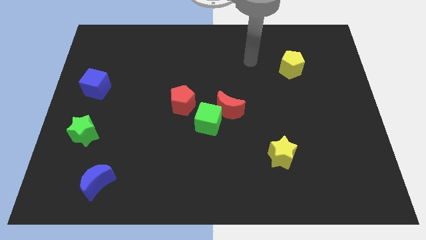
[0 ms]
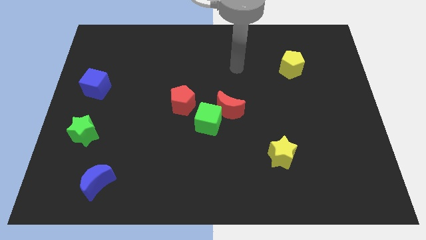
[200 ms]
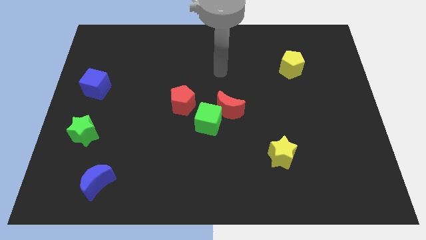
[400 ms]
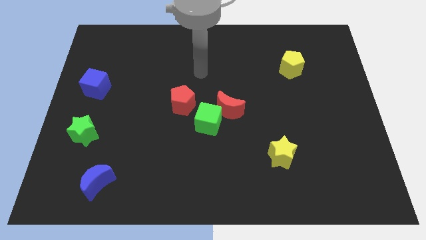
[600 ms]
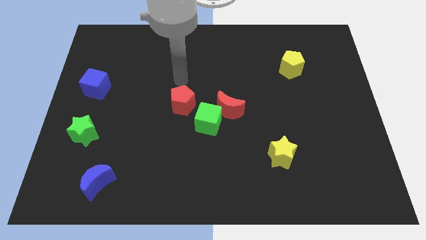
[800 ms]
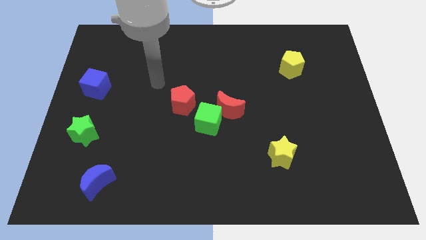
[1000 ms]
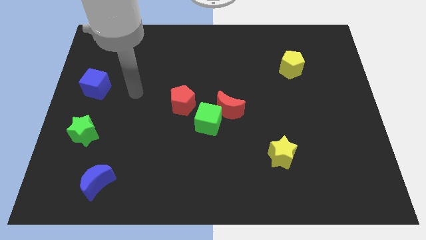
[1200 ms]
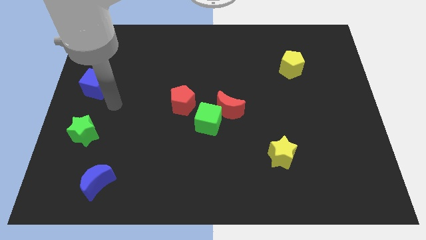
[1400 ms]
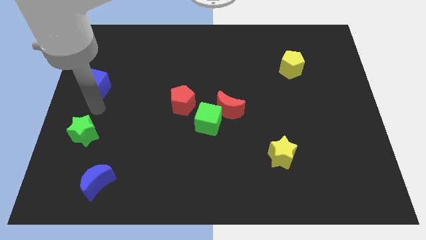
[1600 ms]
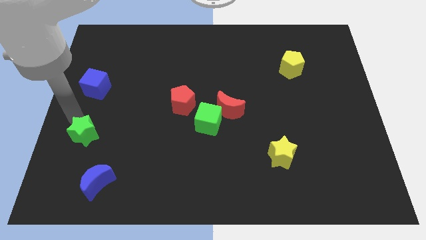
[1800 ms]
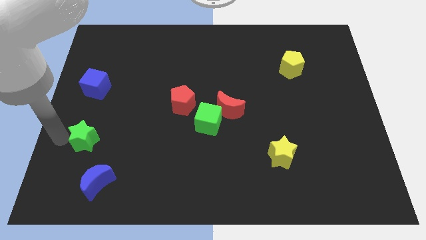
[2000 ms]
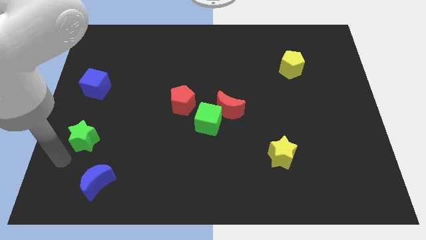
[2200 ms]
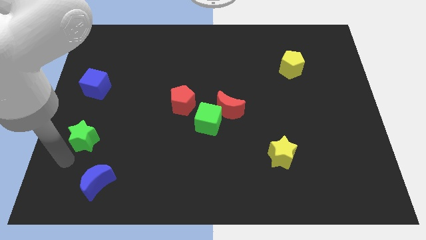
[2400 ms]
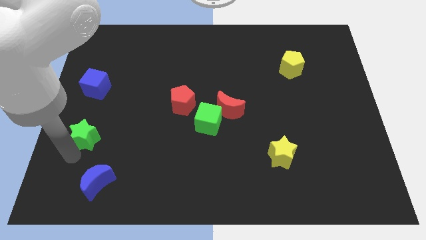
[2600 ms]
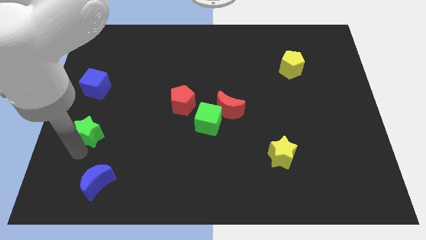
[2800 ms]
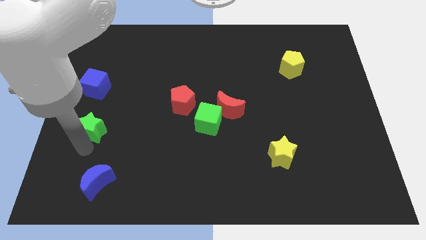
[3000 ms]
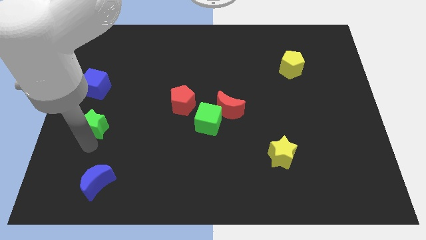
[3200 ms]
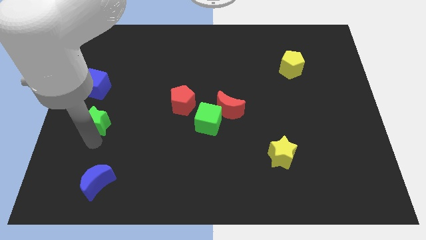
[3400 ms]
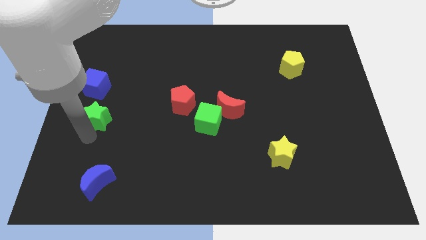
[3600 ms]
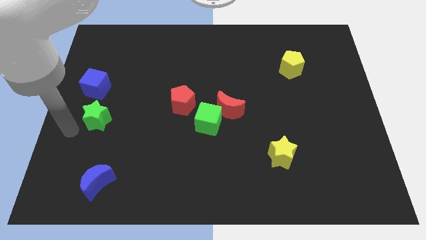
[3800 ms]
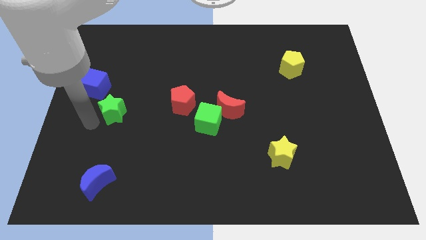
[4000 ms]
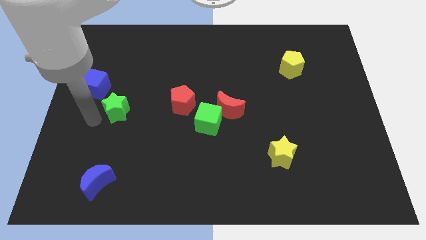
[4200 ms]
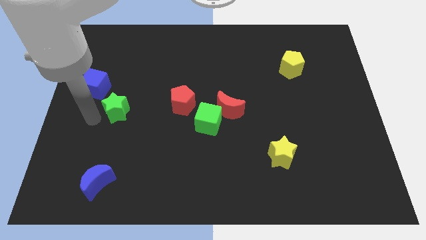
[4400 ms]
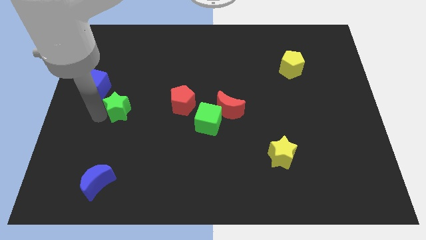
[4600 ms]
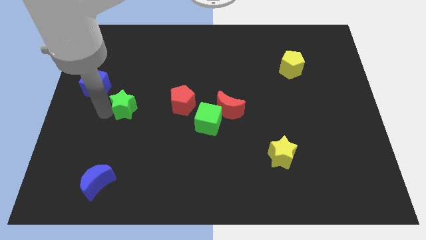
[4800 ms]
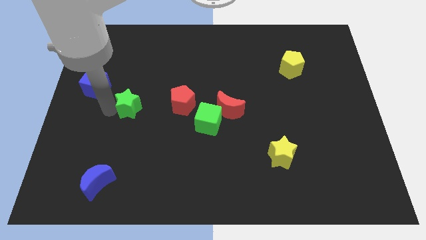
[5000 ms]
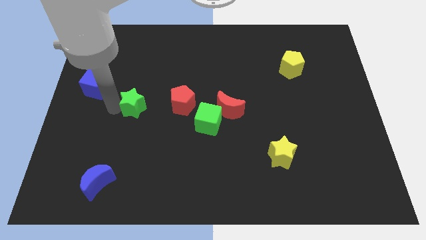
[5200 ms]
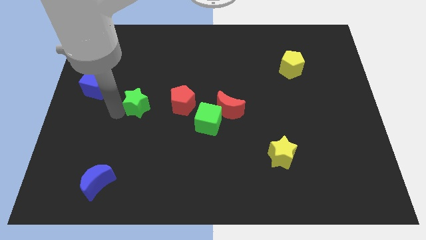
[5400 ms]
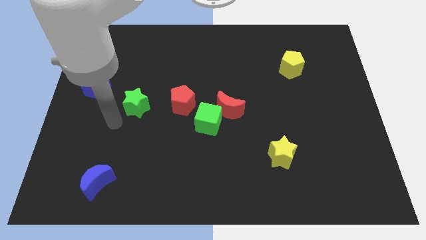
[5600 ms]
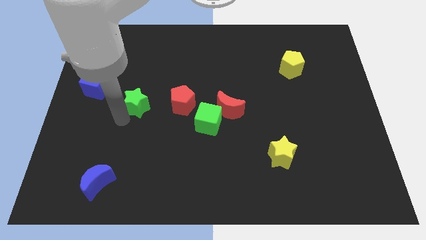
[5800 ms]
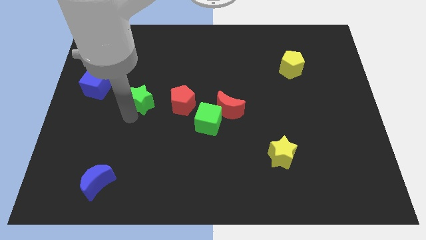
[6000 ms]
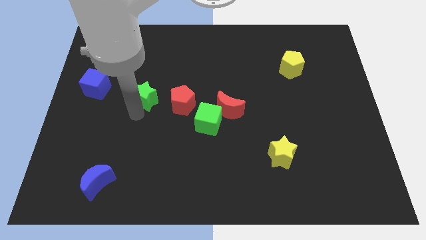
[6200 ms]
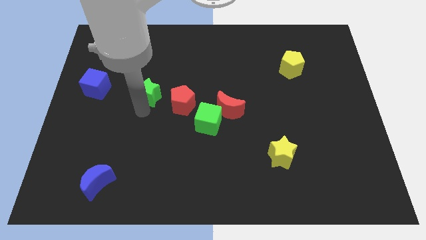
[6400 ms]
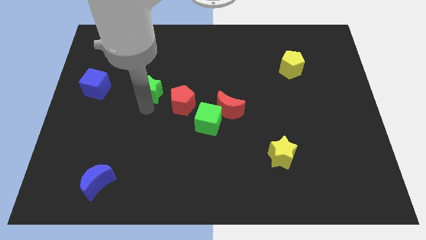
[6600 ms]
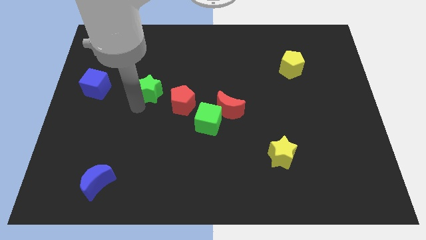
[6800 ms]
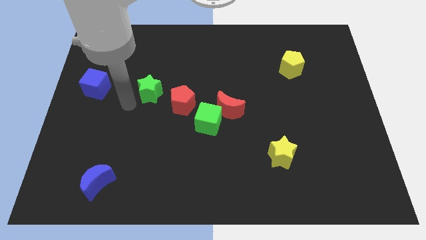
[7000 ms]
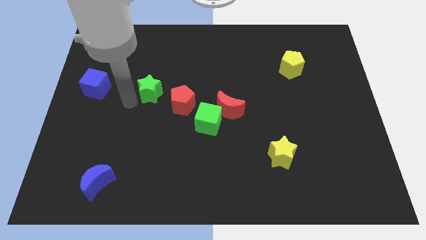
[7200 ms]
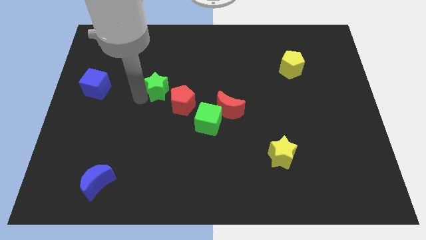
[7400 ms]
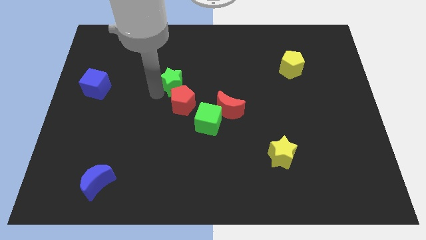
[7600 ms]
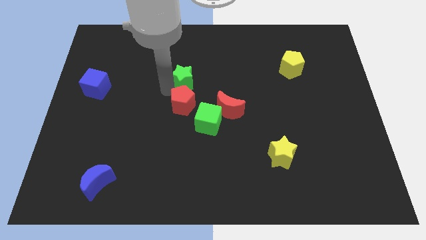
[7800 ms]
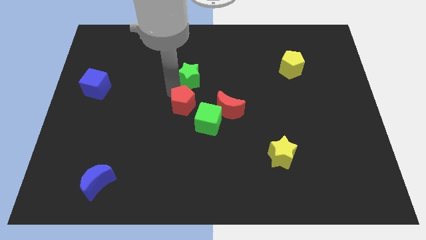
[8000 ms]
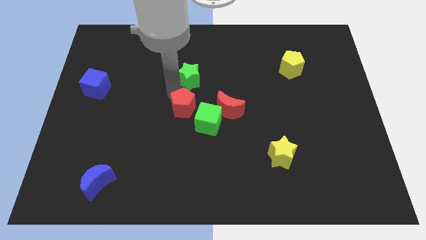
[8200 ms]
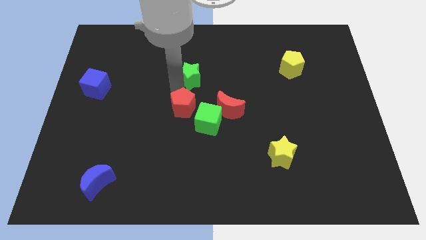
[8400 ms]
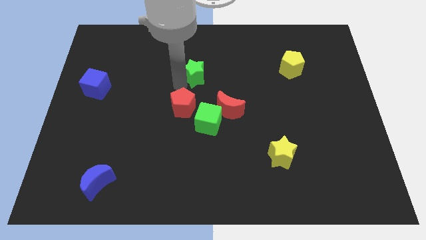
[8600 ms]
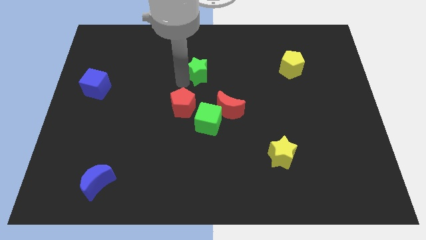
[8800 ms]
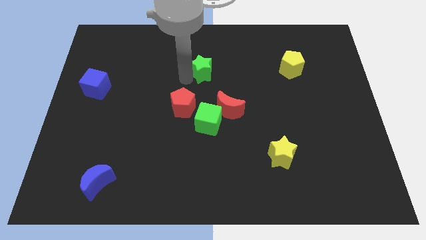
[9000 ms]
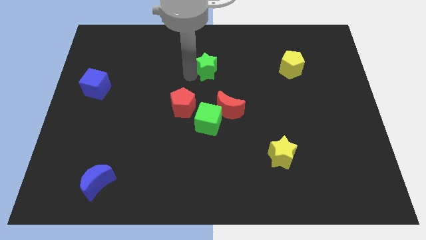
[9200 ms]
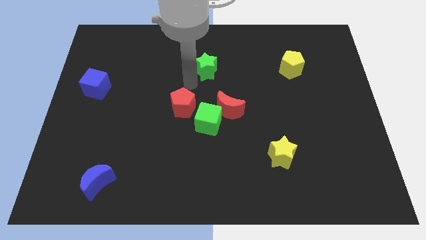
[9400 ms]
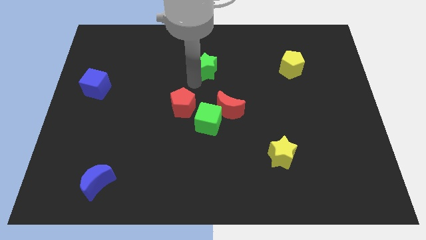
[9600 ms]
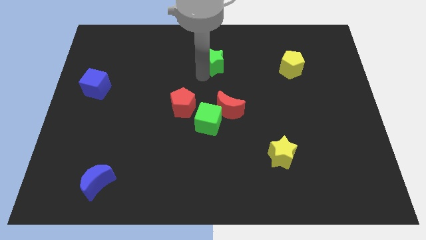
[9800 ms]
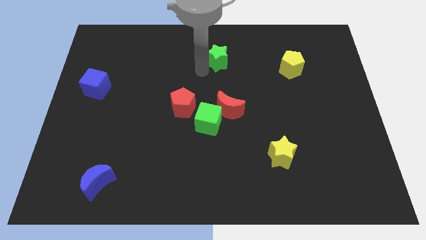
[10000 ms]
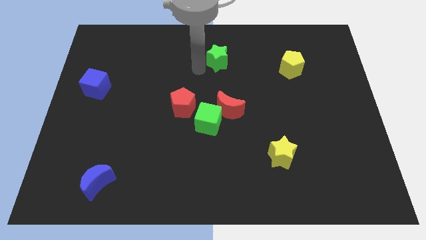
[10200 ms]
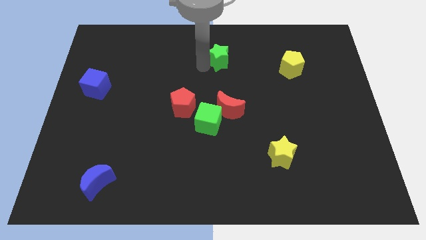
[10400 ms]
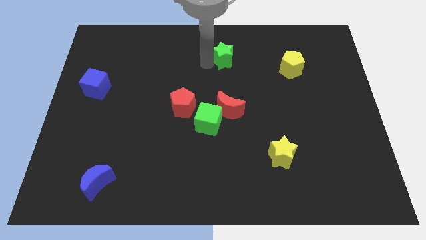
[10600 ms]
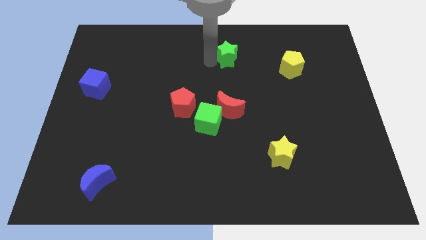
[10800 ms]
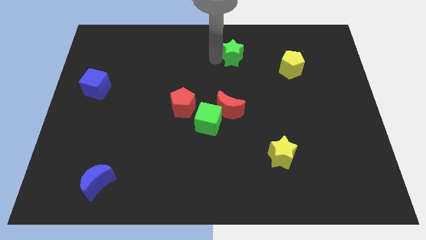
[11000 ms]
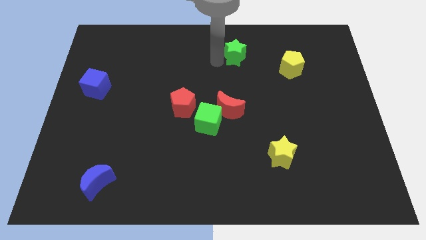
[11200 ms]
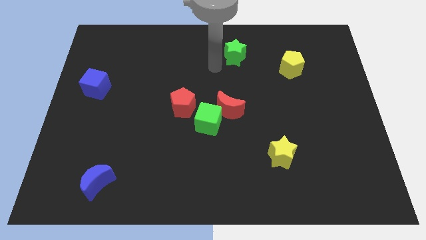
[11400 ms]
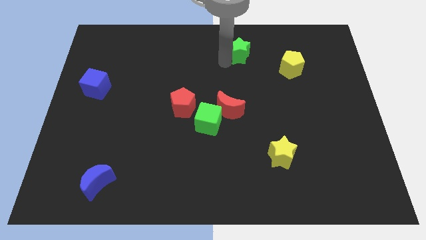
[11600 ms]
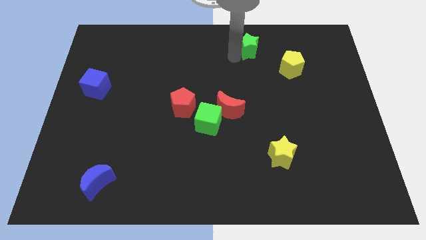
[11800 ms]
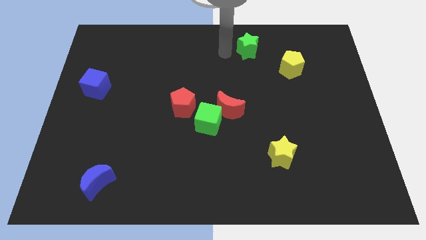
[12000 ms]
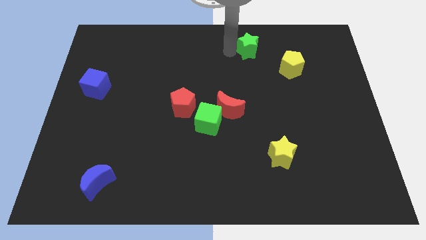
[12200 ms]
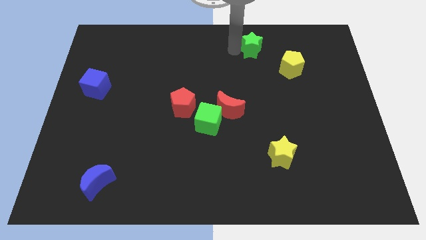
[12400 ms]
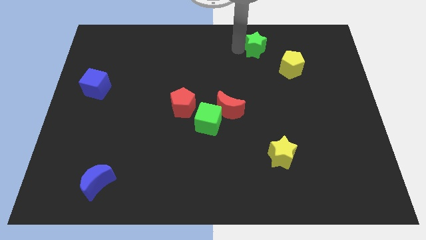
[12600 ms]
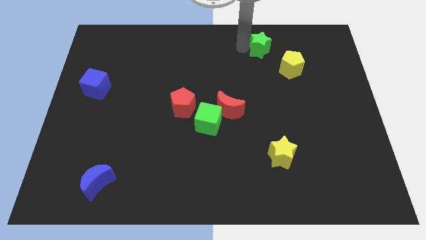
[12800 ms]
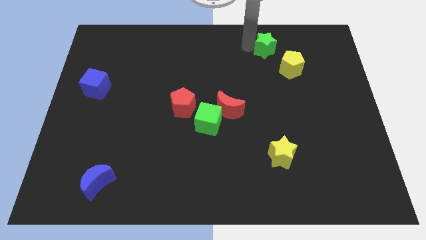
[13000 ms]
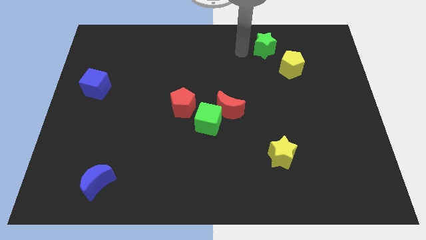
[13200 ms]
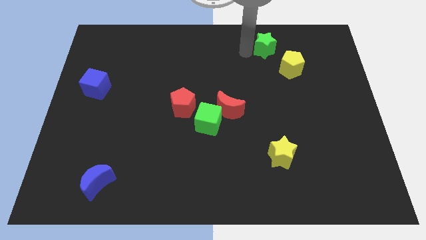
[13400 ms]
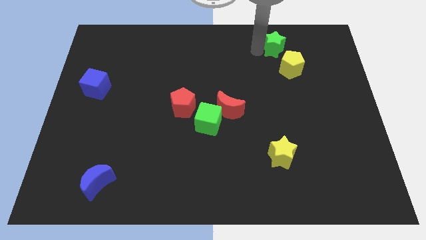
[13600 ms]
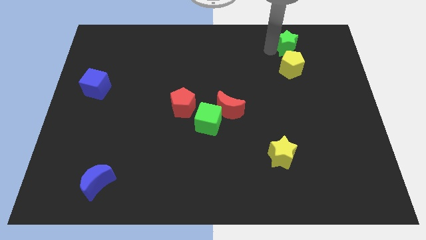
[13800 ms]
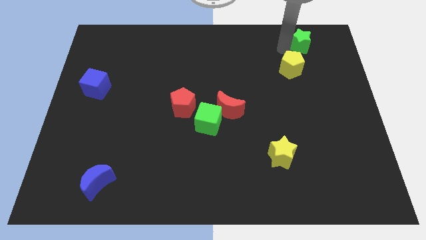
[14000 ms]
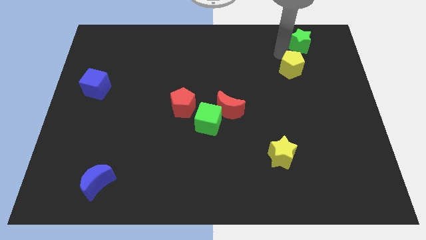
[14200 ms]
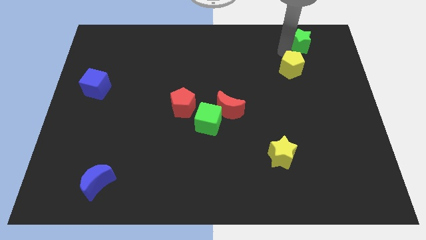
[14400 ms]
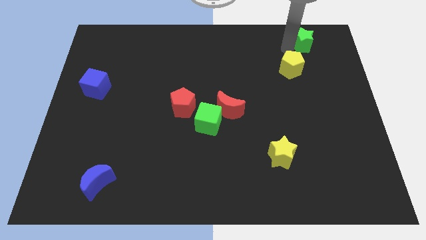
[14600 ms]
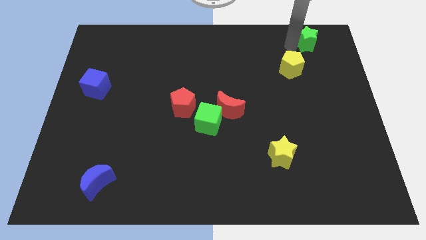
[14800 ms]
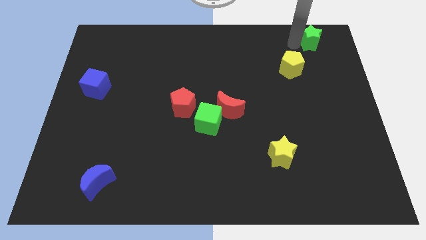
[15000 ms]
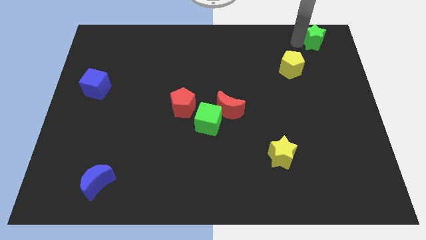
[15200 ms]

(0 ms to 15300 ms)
move the green star to the top right

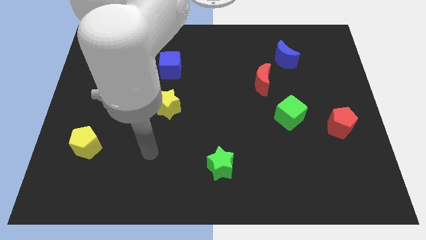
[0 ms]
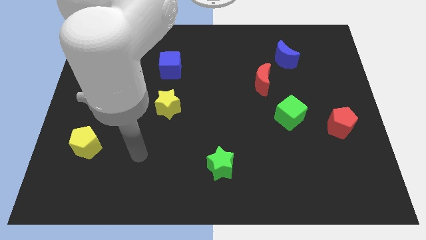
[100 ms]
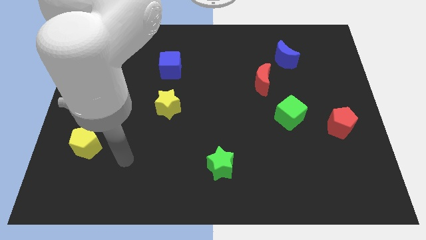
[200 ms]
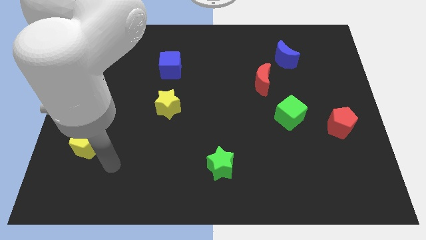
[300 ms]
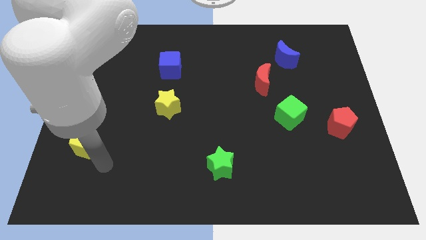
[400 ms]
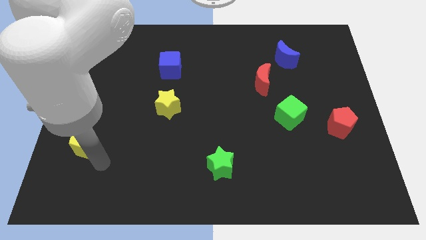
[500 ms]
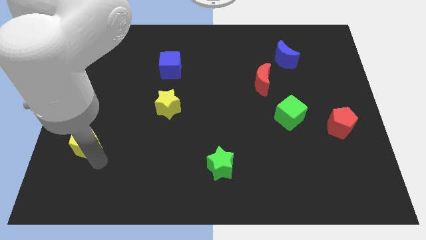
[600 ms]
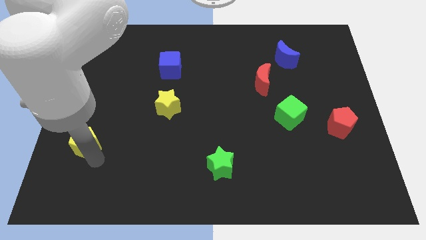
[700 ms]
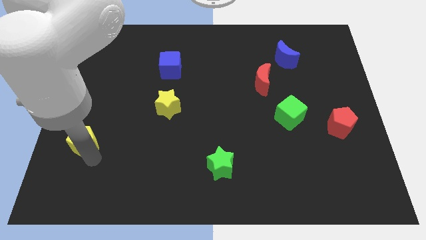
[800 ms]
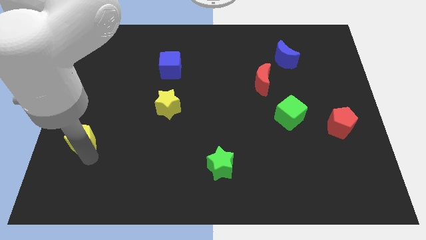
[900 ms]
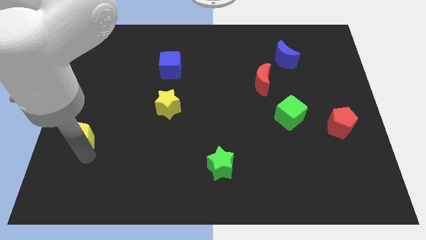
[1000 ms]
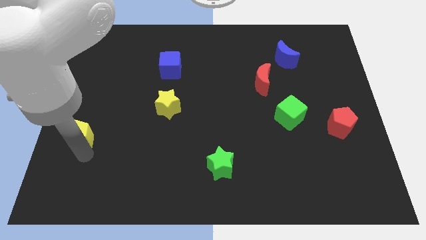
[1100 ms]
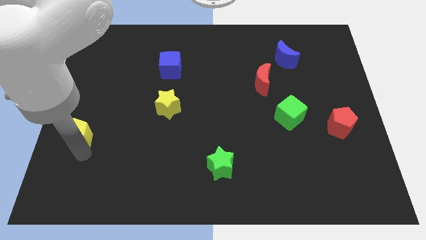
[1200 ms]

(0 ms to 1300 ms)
put the yellow pentagon to the left side
